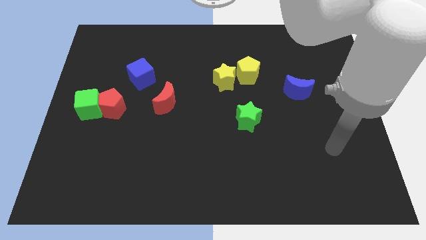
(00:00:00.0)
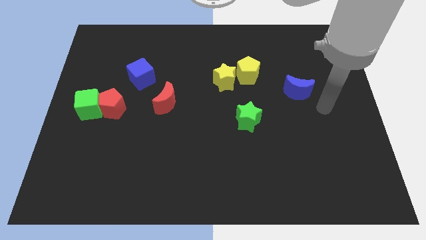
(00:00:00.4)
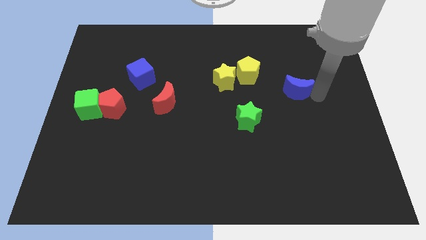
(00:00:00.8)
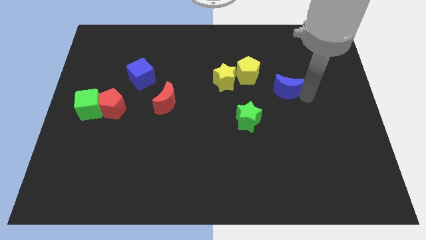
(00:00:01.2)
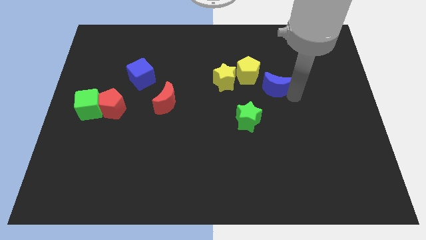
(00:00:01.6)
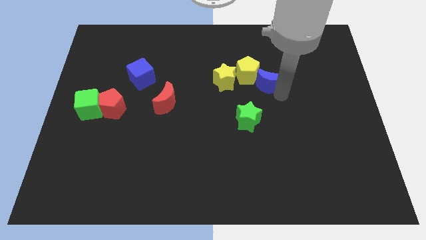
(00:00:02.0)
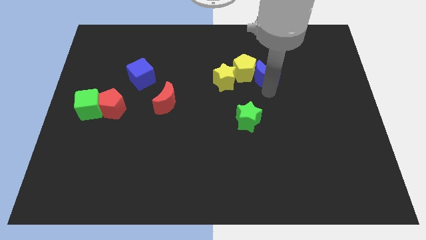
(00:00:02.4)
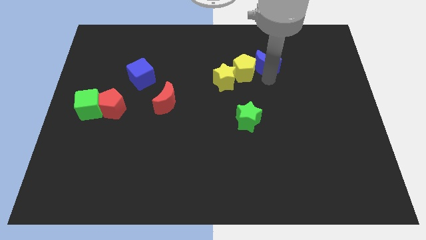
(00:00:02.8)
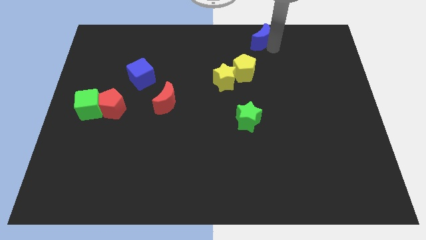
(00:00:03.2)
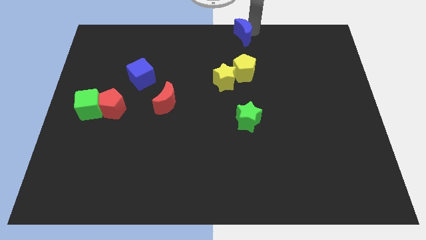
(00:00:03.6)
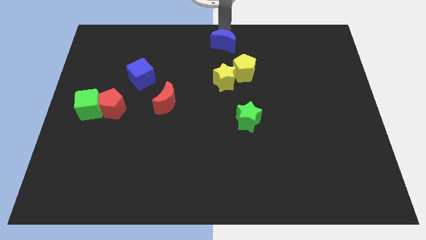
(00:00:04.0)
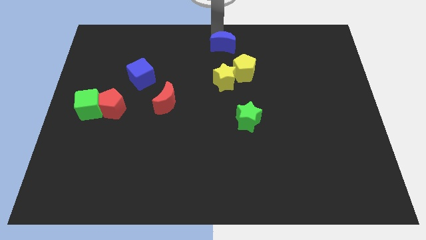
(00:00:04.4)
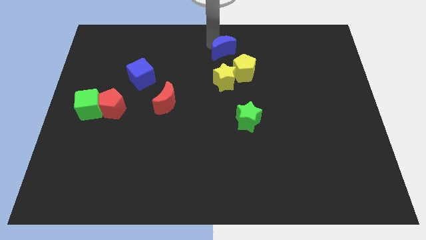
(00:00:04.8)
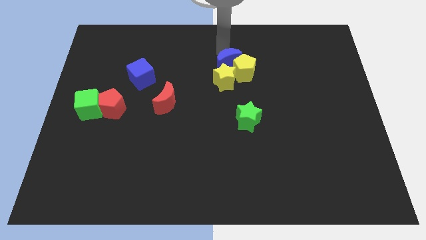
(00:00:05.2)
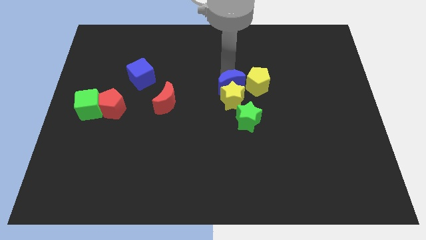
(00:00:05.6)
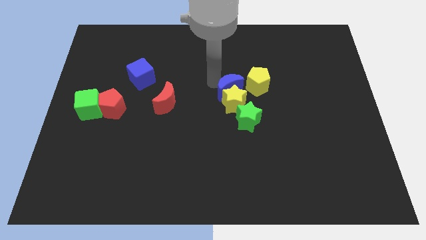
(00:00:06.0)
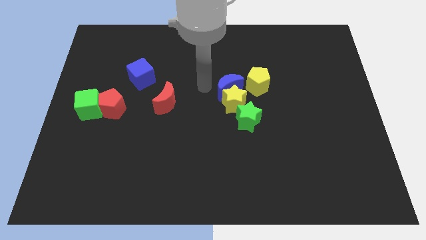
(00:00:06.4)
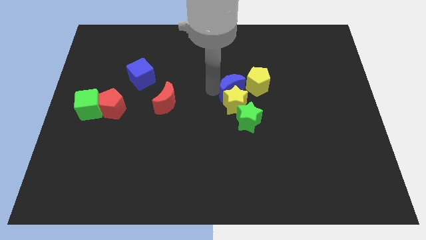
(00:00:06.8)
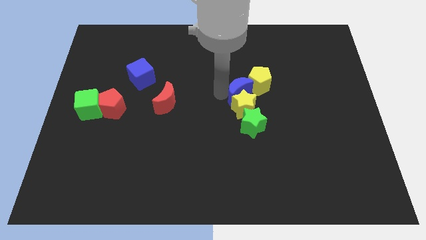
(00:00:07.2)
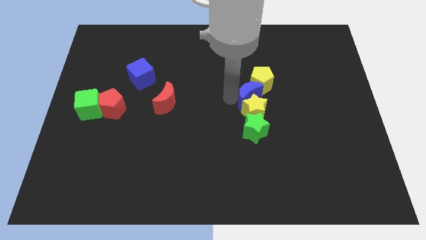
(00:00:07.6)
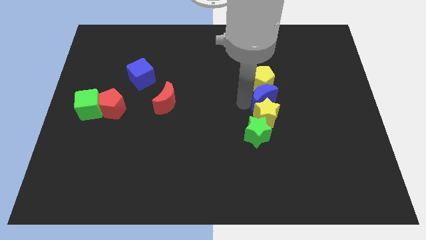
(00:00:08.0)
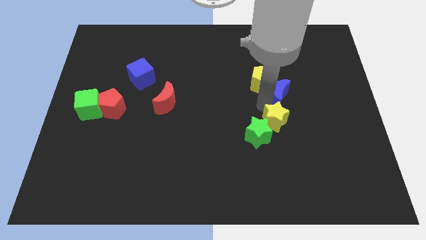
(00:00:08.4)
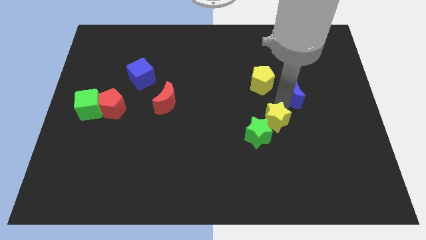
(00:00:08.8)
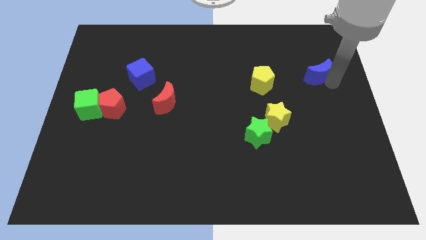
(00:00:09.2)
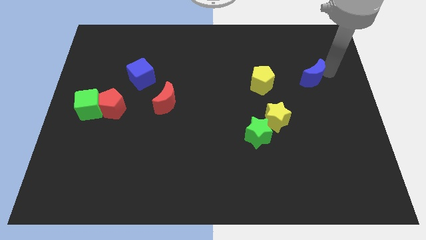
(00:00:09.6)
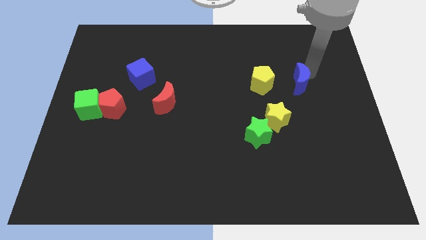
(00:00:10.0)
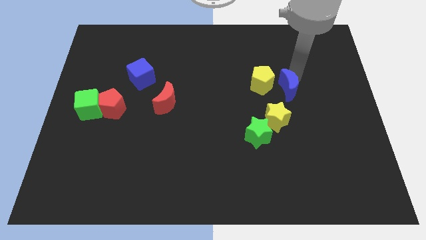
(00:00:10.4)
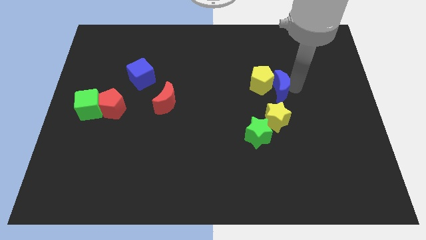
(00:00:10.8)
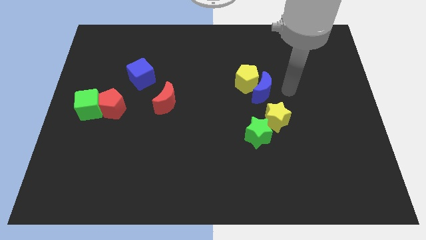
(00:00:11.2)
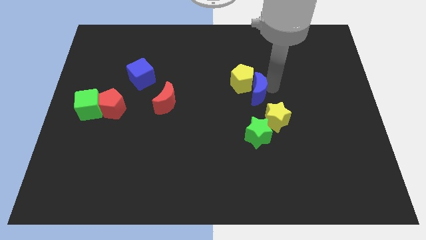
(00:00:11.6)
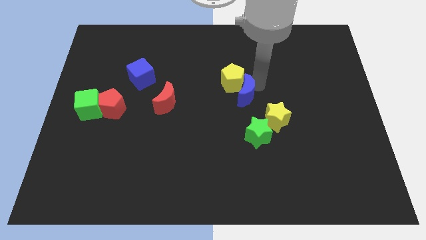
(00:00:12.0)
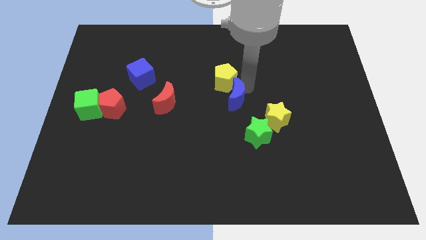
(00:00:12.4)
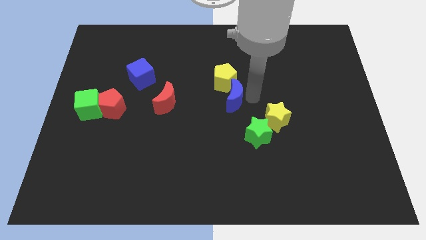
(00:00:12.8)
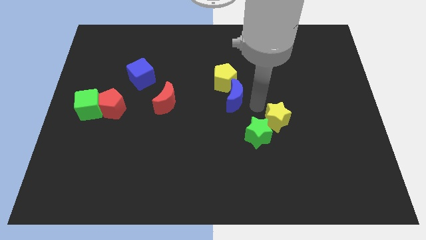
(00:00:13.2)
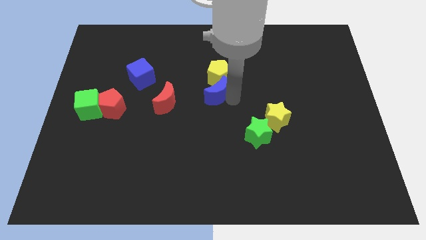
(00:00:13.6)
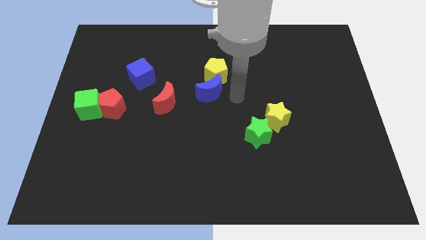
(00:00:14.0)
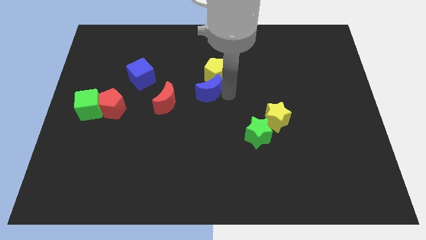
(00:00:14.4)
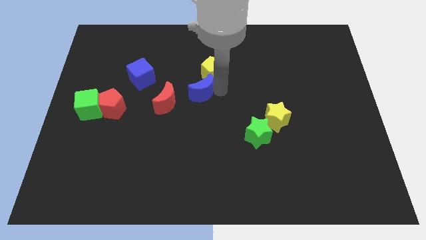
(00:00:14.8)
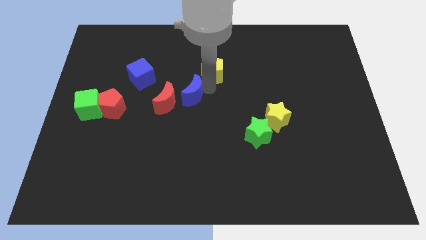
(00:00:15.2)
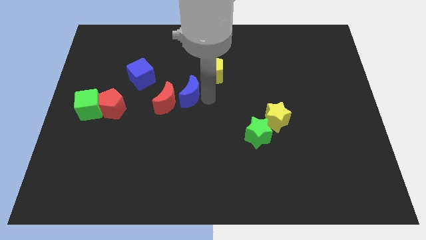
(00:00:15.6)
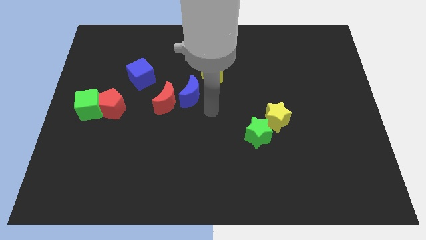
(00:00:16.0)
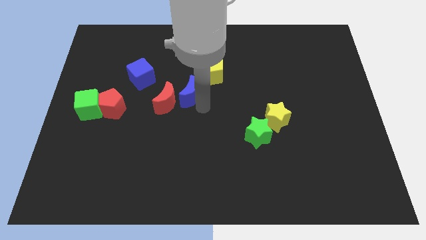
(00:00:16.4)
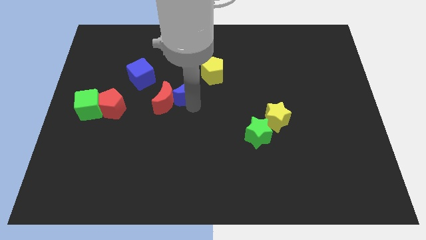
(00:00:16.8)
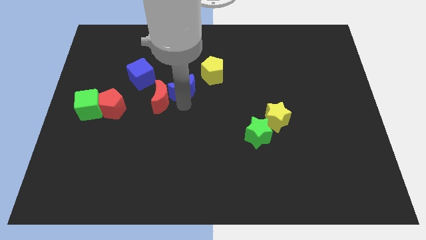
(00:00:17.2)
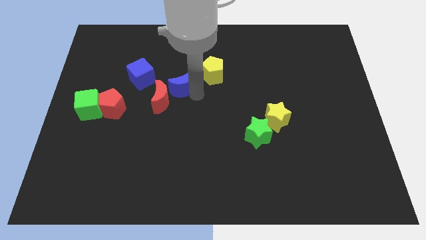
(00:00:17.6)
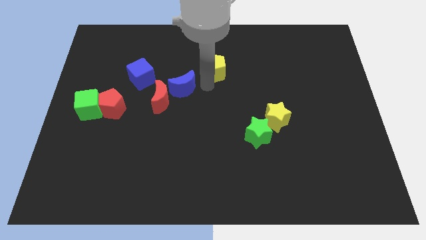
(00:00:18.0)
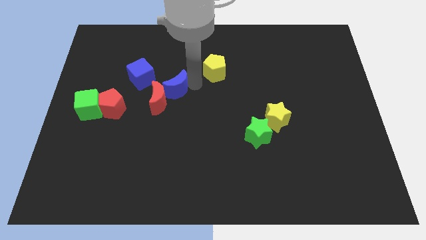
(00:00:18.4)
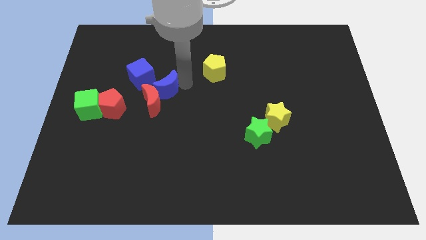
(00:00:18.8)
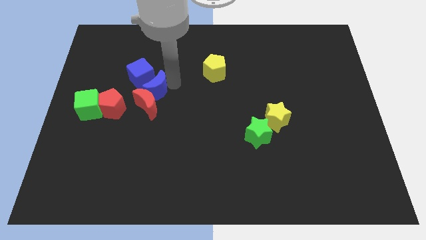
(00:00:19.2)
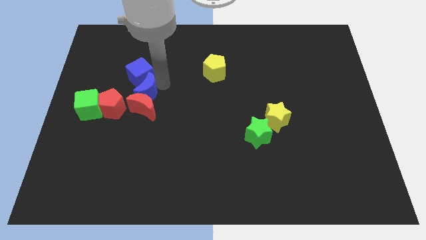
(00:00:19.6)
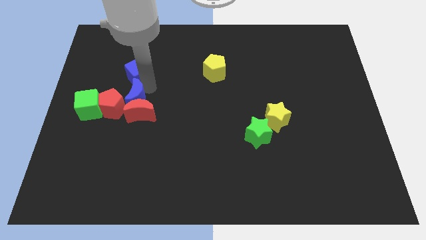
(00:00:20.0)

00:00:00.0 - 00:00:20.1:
put the blue moon towards the red pentagon

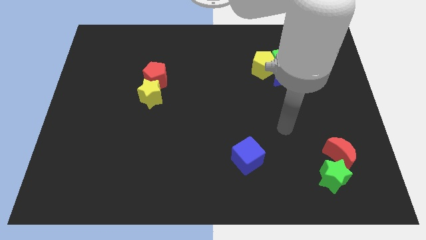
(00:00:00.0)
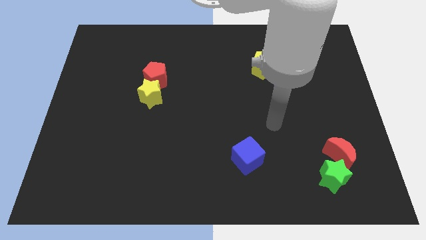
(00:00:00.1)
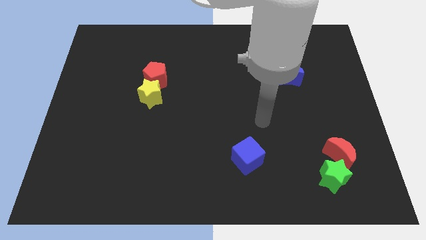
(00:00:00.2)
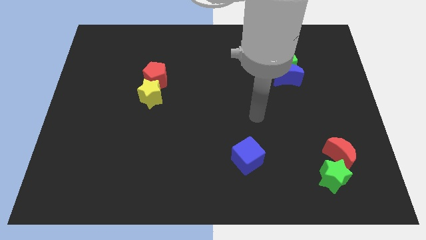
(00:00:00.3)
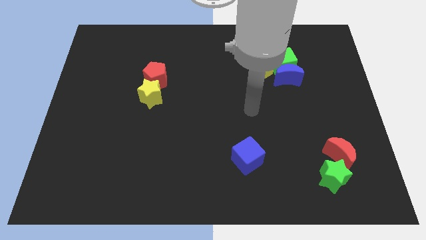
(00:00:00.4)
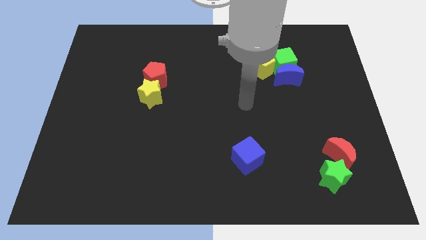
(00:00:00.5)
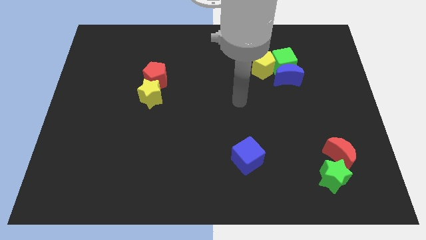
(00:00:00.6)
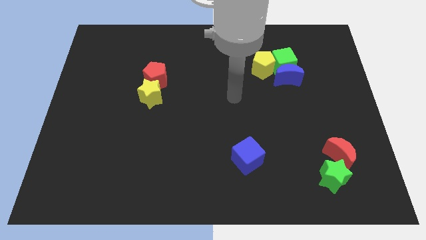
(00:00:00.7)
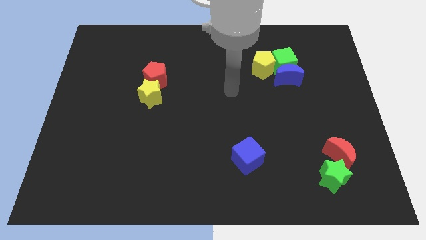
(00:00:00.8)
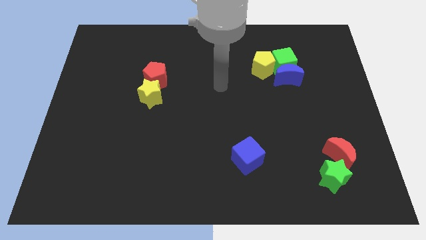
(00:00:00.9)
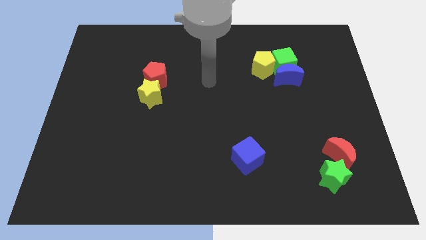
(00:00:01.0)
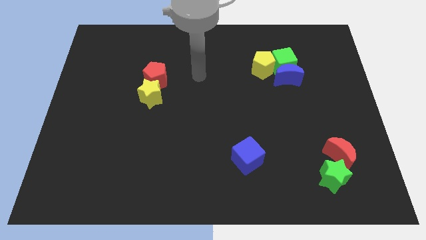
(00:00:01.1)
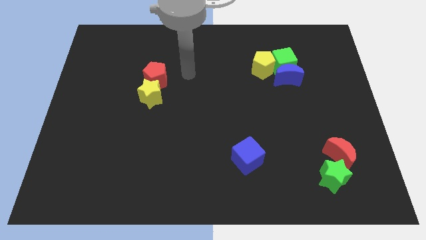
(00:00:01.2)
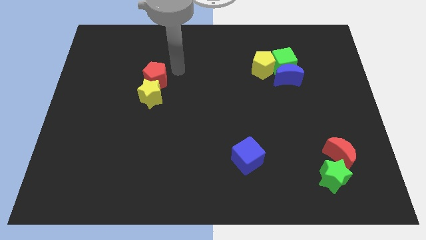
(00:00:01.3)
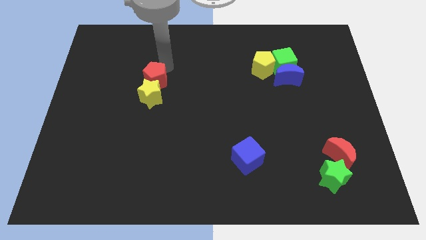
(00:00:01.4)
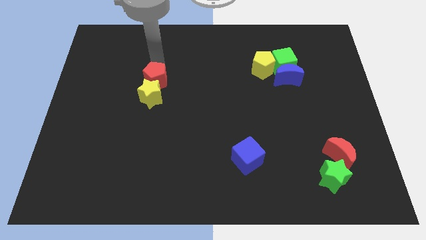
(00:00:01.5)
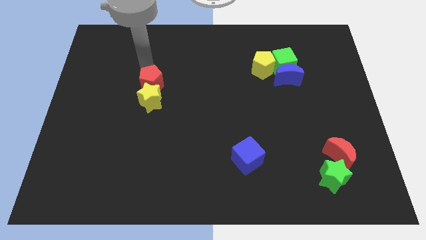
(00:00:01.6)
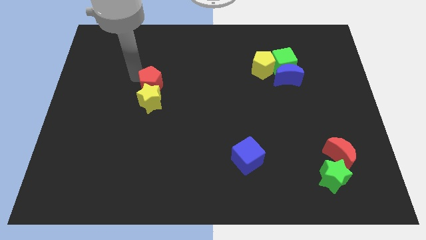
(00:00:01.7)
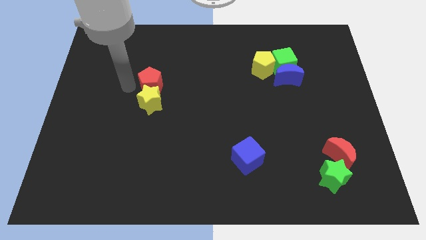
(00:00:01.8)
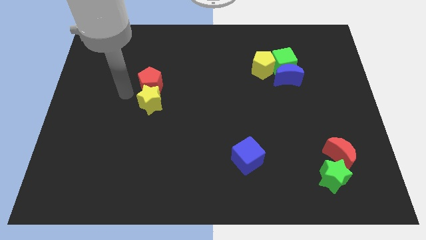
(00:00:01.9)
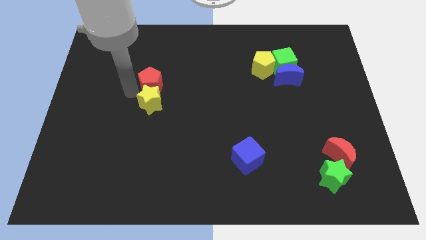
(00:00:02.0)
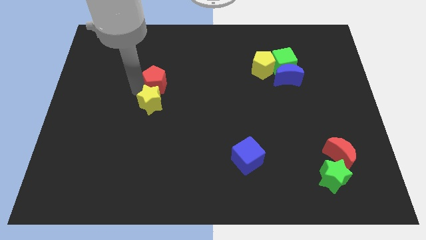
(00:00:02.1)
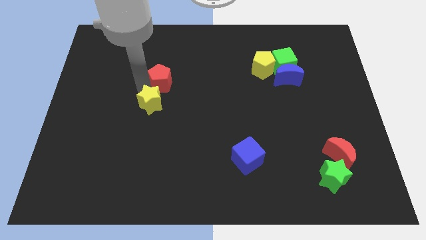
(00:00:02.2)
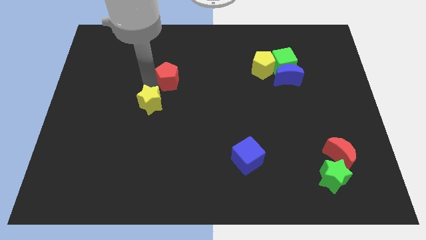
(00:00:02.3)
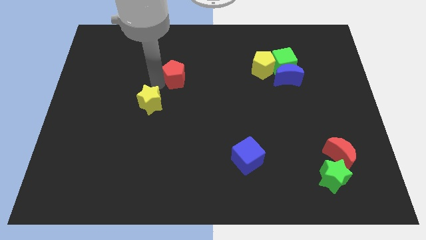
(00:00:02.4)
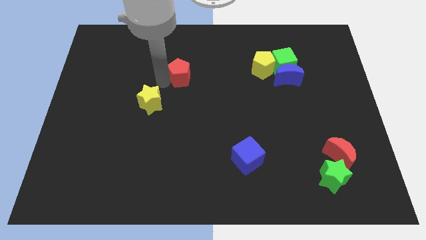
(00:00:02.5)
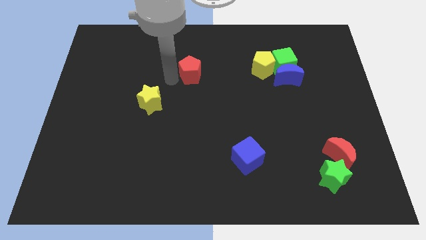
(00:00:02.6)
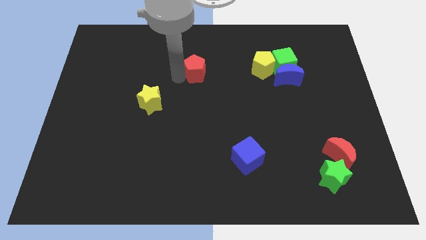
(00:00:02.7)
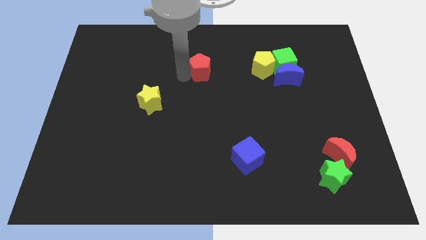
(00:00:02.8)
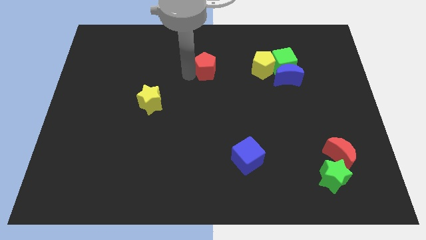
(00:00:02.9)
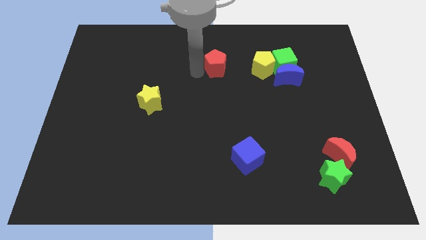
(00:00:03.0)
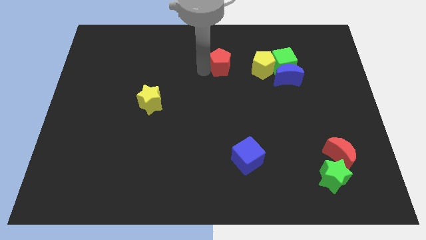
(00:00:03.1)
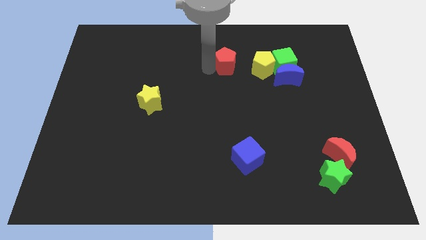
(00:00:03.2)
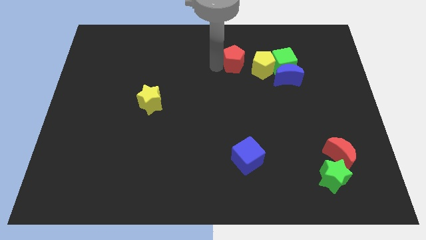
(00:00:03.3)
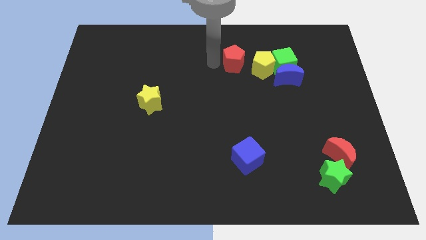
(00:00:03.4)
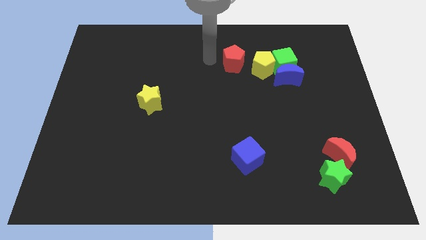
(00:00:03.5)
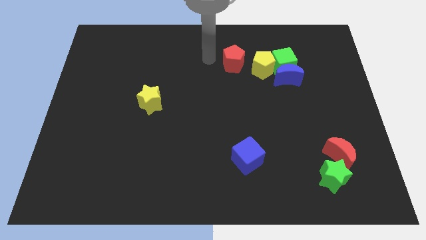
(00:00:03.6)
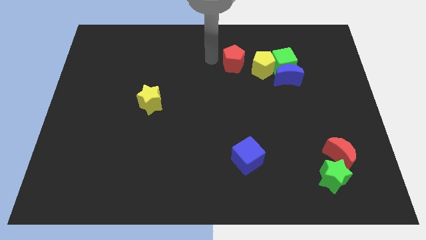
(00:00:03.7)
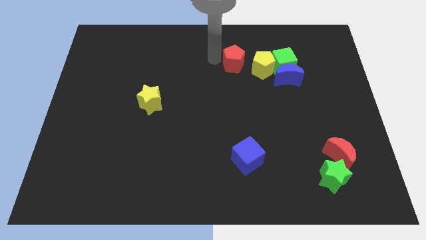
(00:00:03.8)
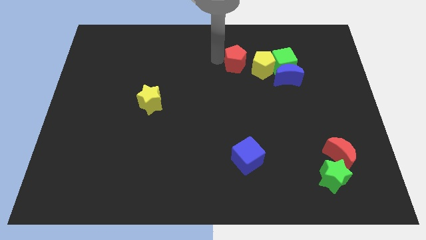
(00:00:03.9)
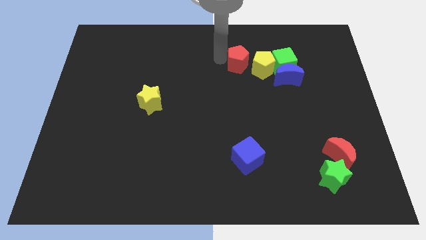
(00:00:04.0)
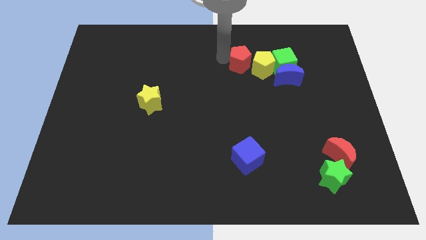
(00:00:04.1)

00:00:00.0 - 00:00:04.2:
move the red pentagon towards the yellow pentagon
